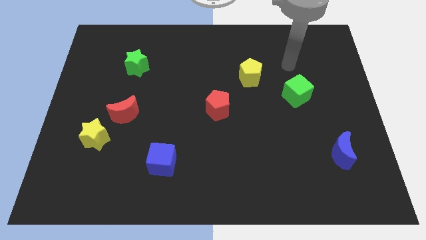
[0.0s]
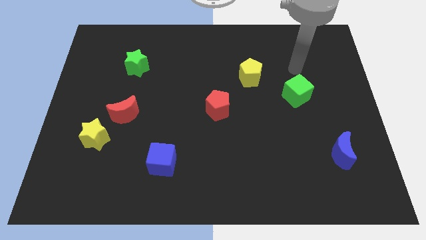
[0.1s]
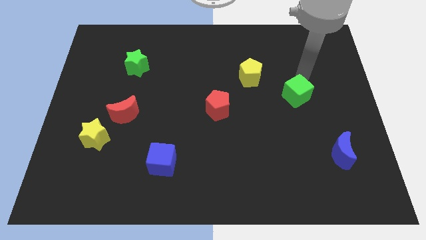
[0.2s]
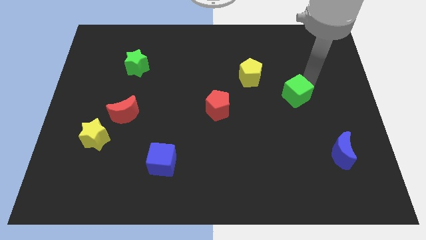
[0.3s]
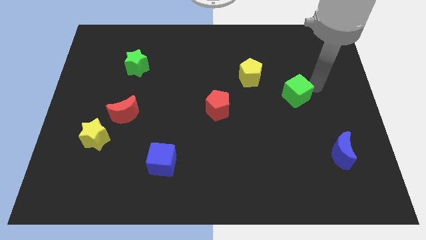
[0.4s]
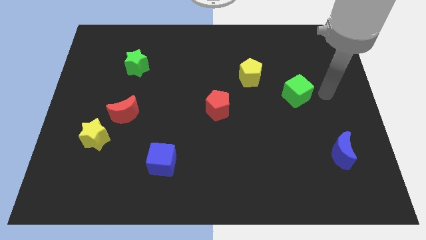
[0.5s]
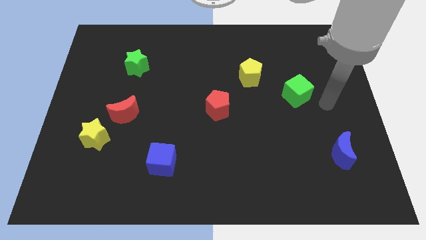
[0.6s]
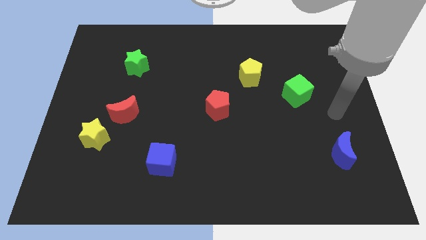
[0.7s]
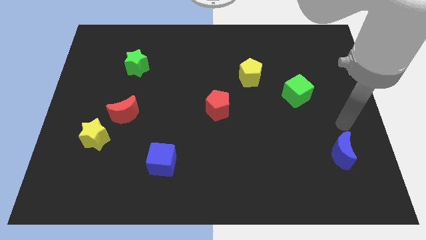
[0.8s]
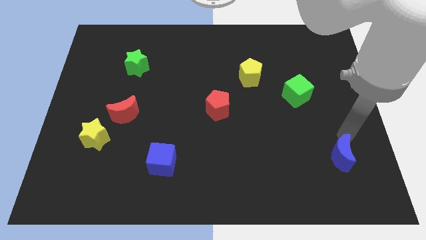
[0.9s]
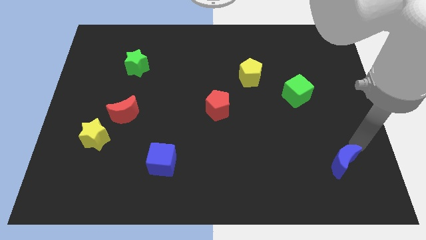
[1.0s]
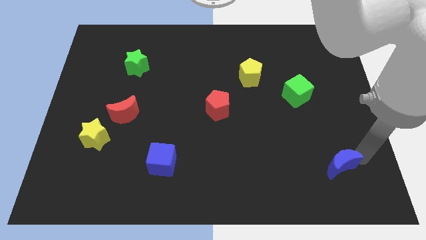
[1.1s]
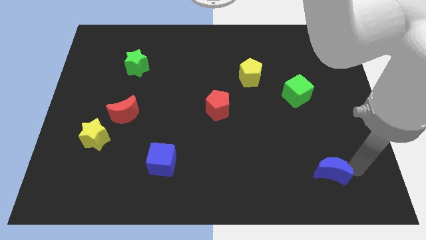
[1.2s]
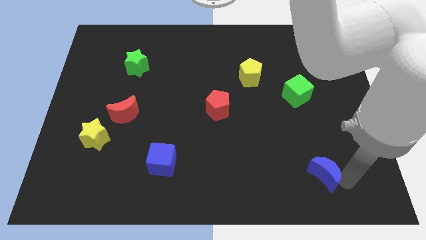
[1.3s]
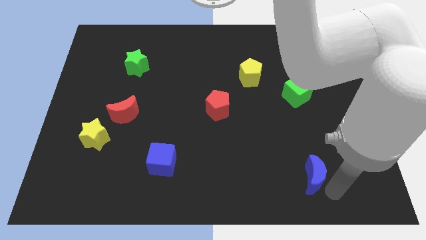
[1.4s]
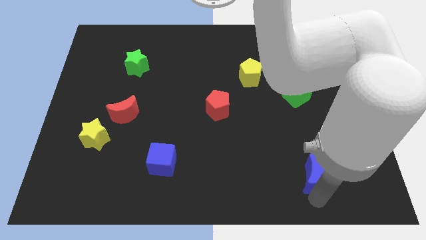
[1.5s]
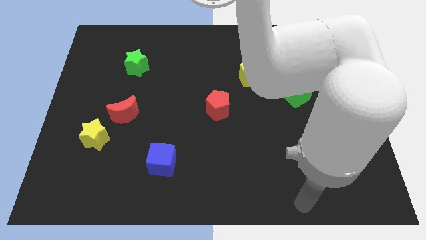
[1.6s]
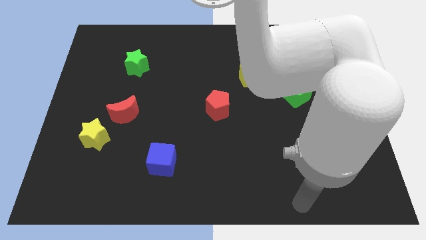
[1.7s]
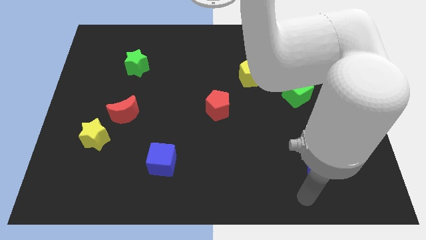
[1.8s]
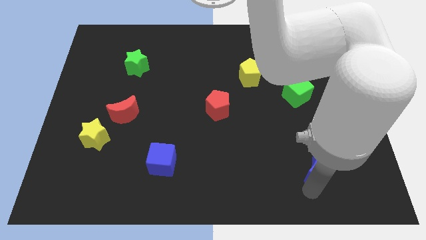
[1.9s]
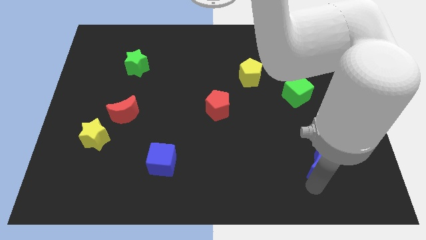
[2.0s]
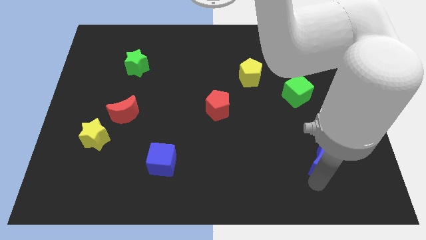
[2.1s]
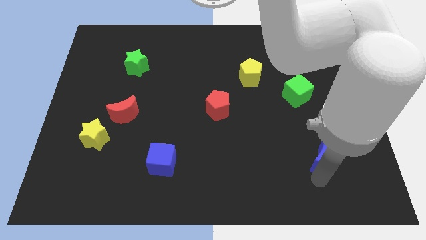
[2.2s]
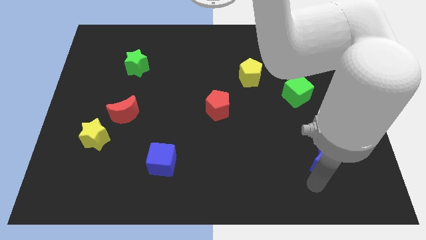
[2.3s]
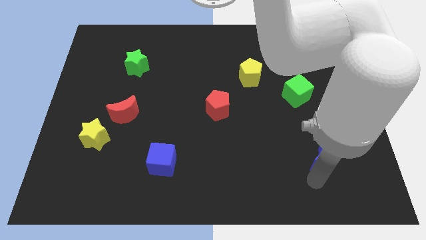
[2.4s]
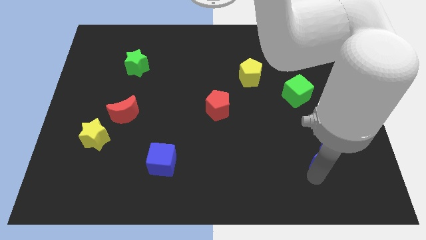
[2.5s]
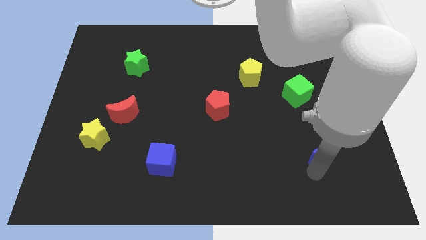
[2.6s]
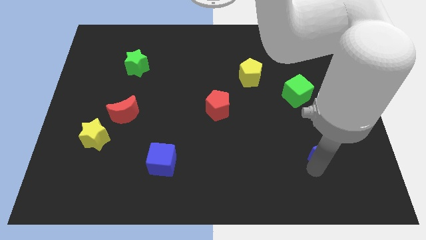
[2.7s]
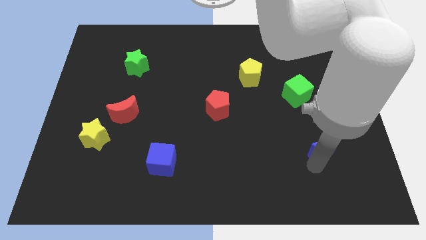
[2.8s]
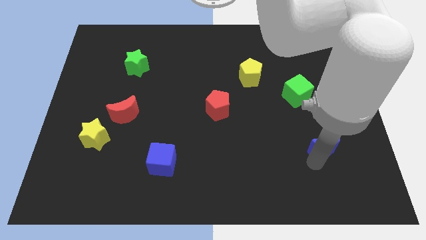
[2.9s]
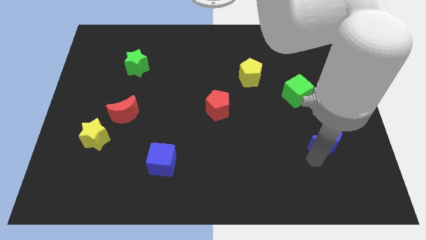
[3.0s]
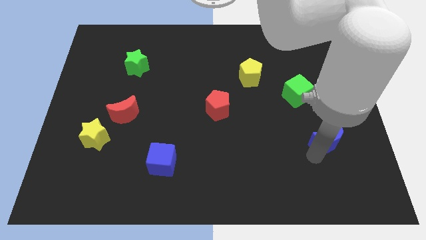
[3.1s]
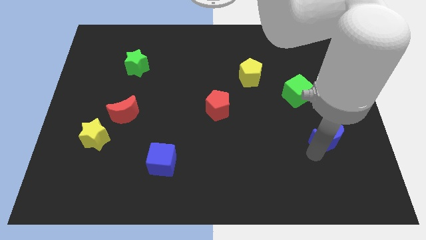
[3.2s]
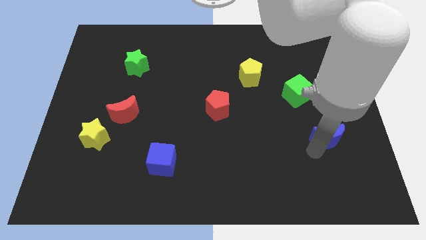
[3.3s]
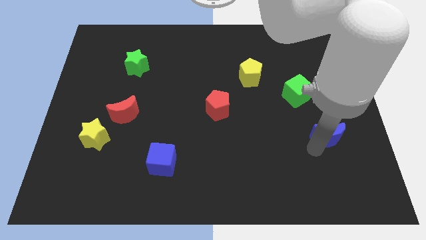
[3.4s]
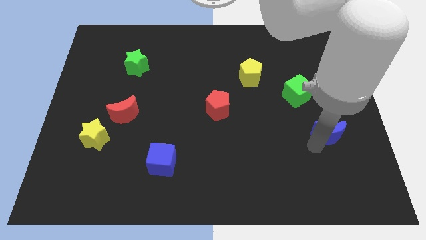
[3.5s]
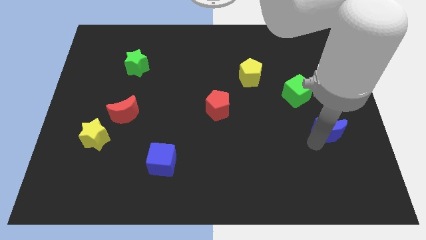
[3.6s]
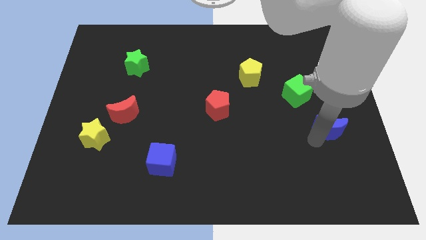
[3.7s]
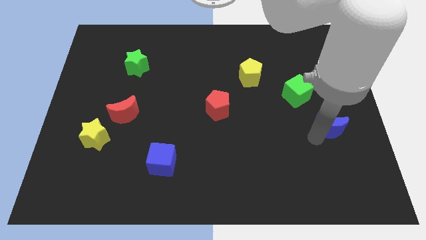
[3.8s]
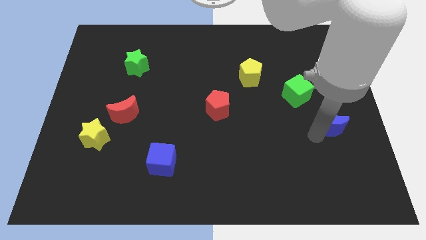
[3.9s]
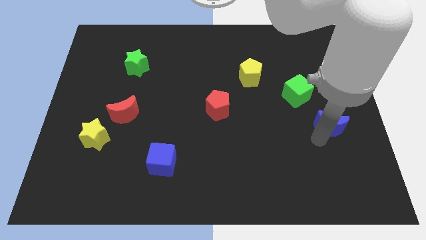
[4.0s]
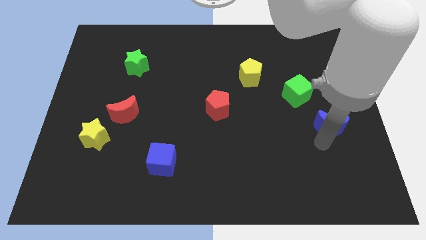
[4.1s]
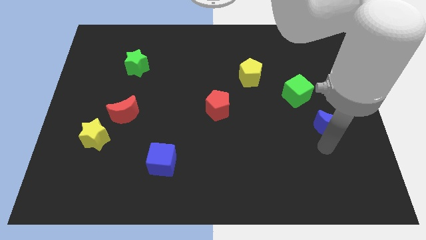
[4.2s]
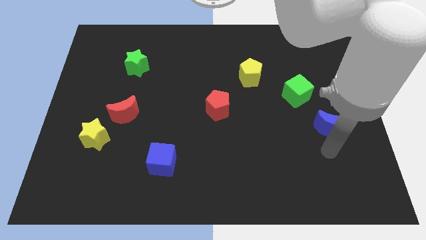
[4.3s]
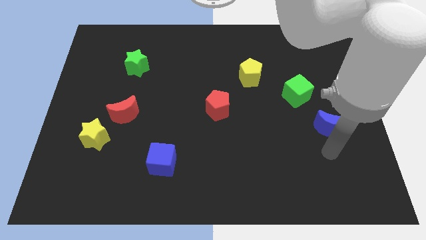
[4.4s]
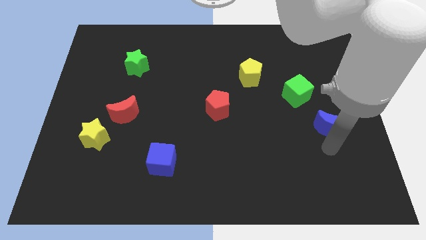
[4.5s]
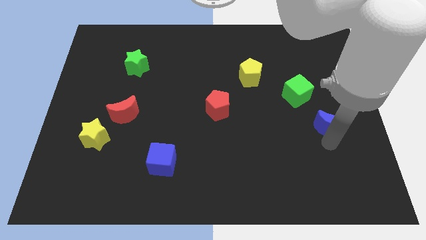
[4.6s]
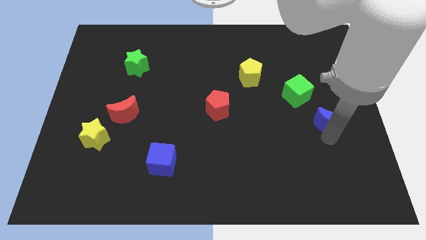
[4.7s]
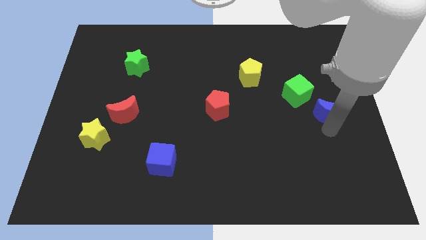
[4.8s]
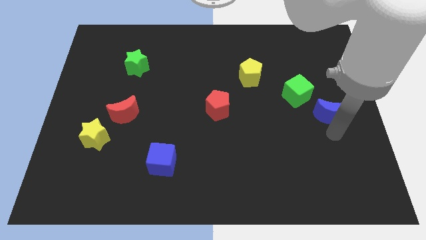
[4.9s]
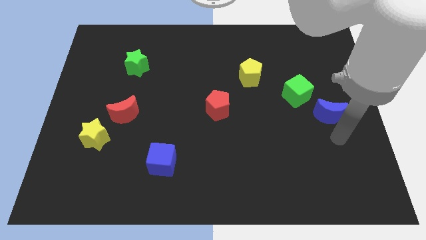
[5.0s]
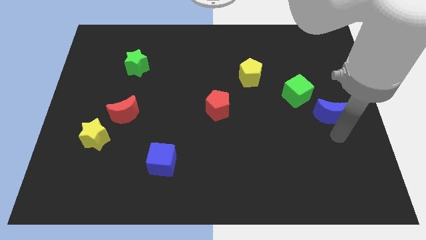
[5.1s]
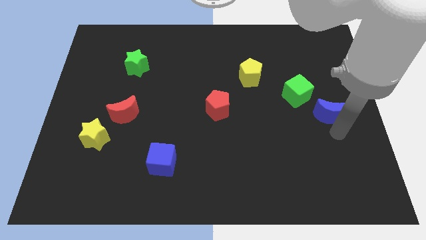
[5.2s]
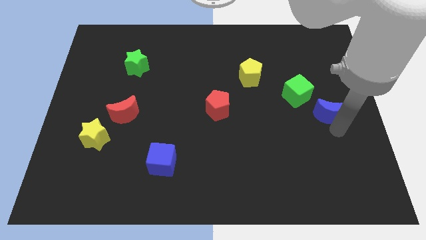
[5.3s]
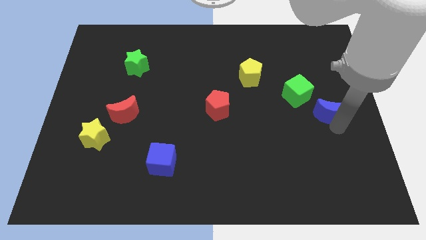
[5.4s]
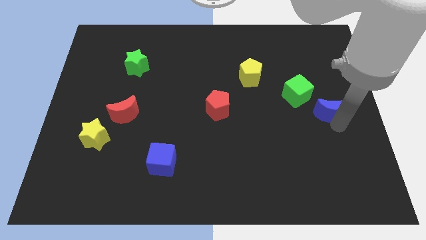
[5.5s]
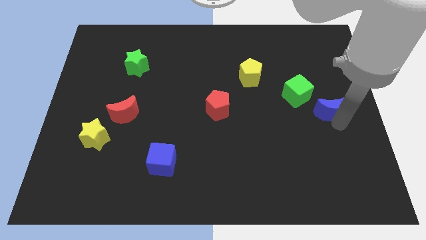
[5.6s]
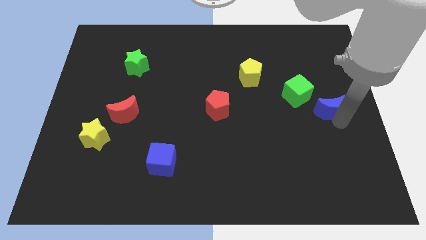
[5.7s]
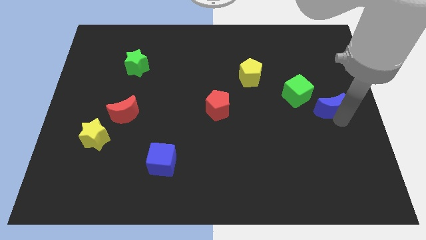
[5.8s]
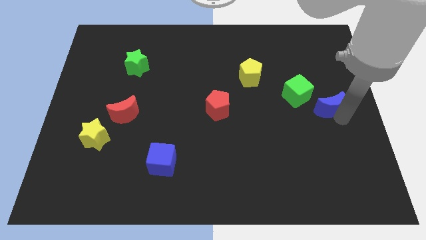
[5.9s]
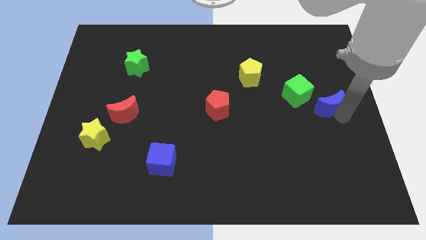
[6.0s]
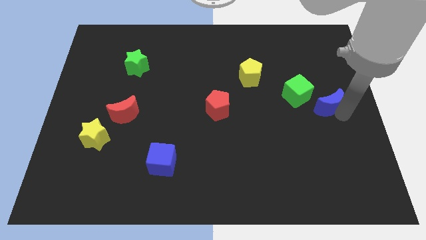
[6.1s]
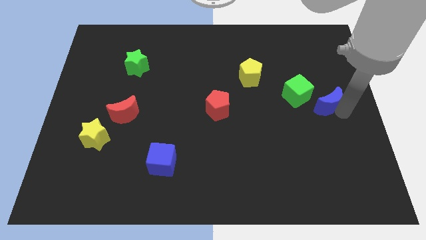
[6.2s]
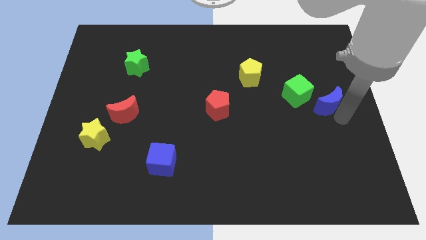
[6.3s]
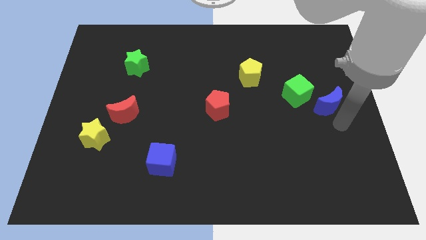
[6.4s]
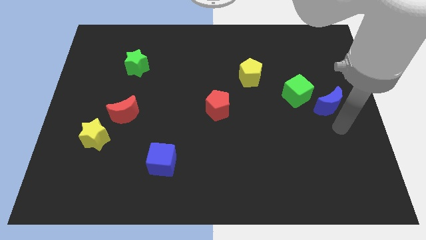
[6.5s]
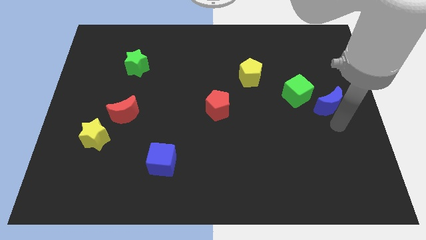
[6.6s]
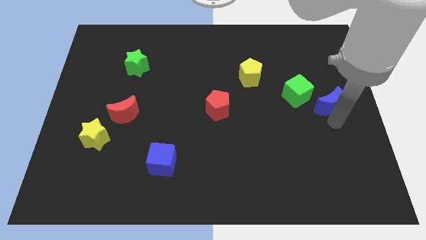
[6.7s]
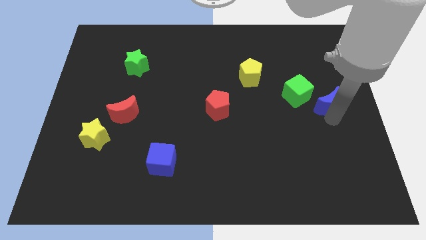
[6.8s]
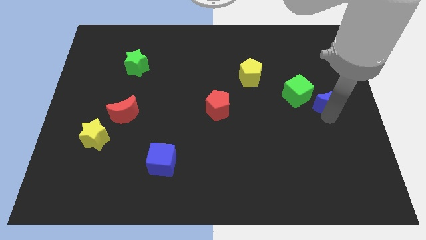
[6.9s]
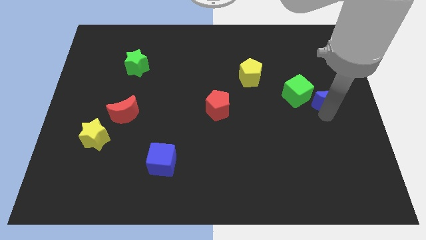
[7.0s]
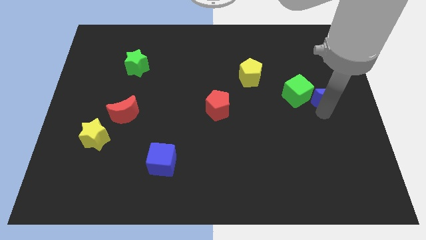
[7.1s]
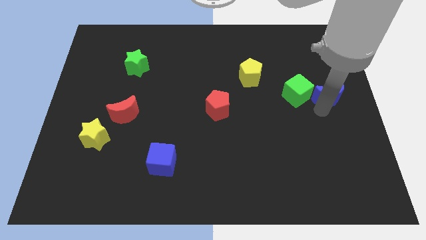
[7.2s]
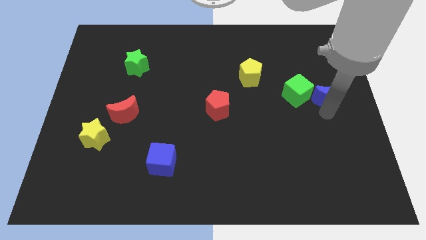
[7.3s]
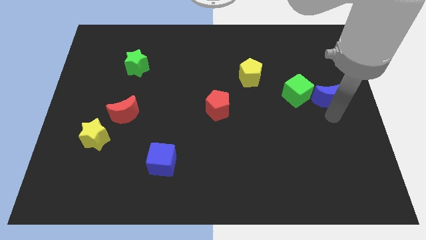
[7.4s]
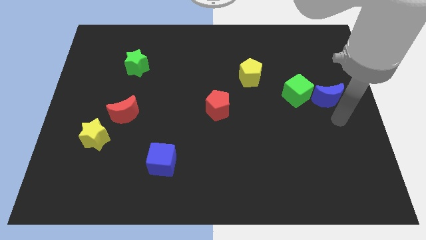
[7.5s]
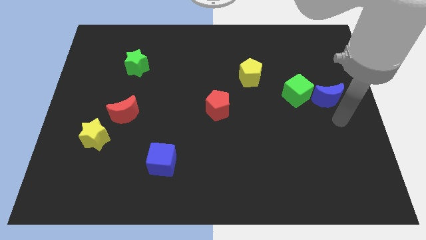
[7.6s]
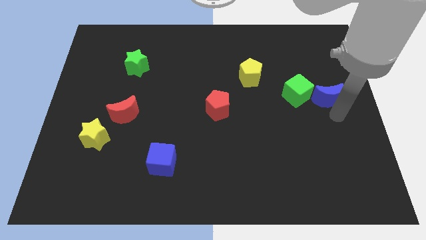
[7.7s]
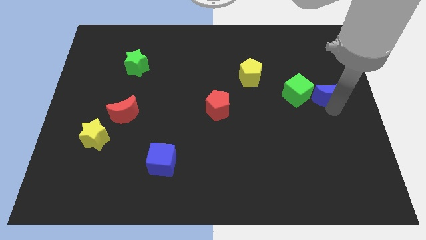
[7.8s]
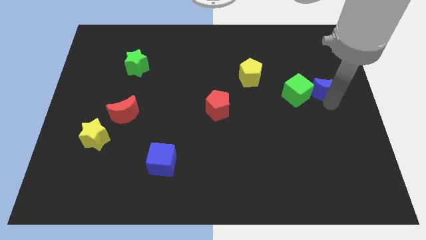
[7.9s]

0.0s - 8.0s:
push the blue moon diagonally up and to the right of the green cube
